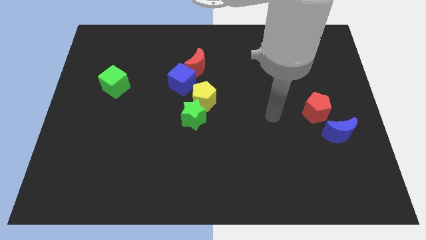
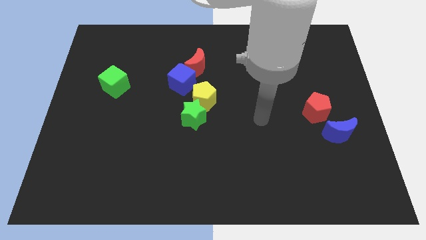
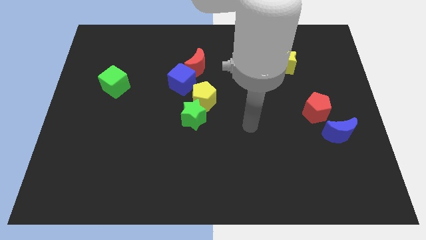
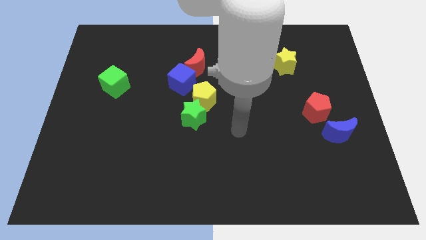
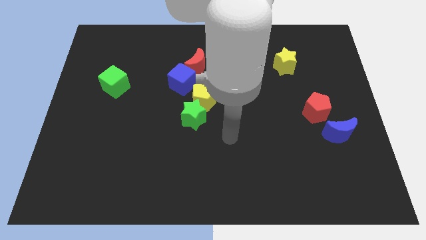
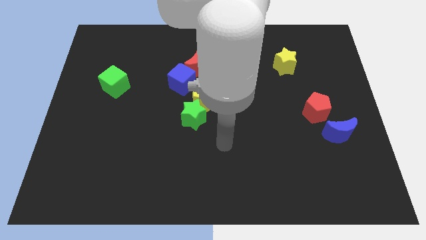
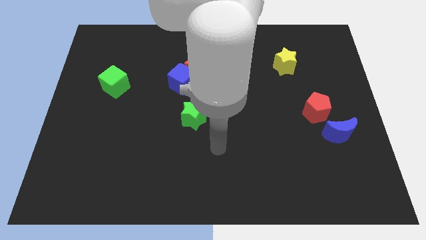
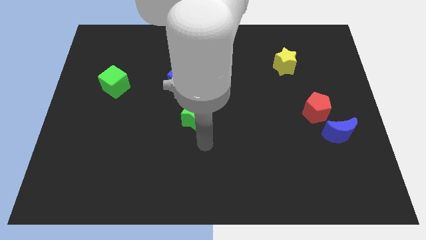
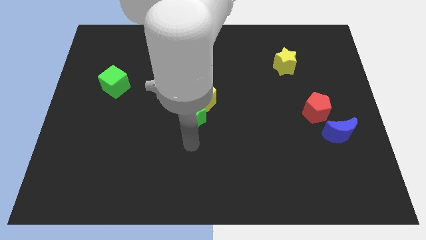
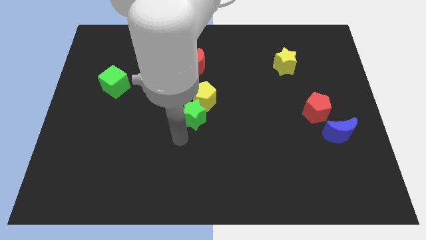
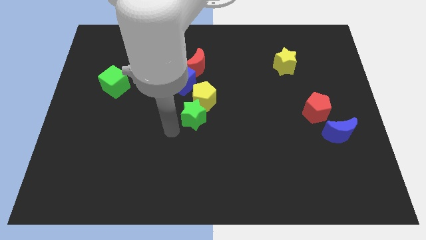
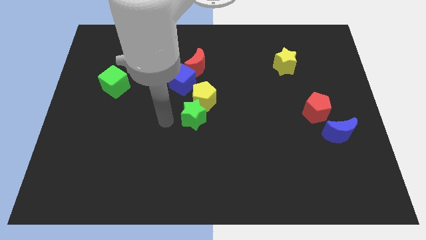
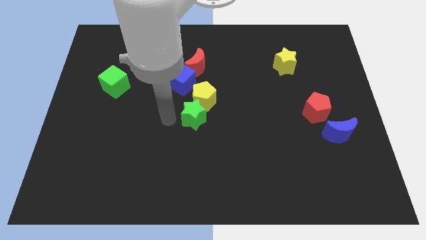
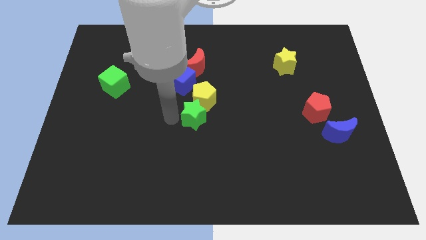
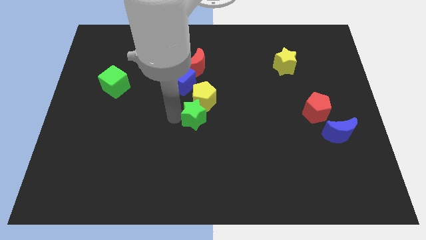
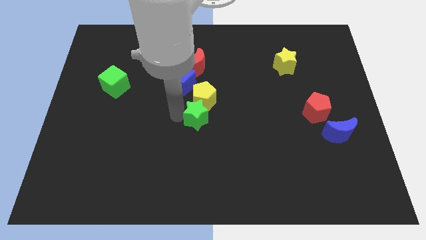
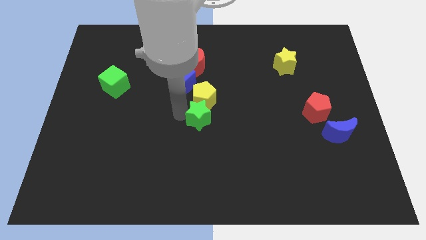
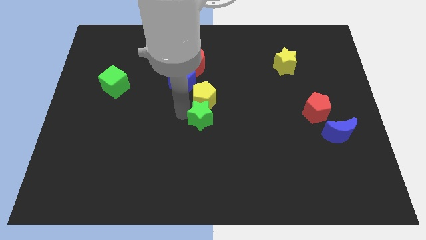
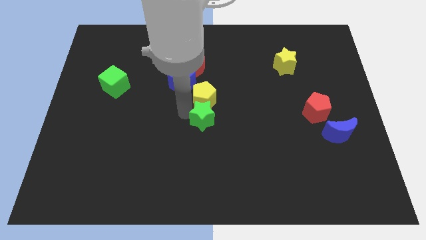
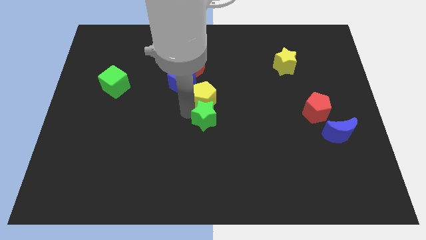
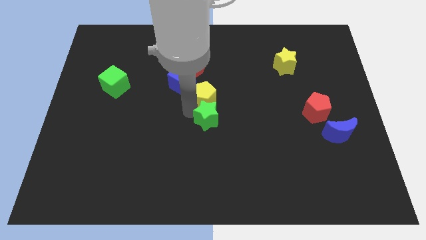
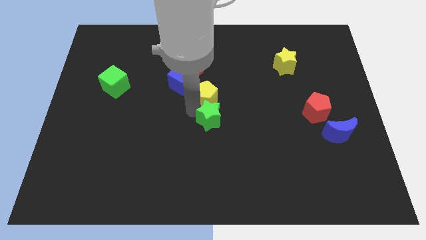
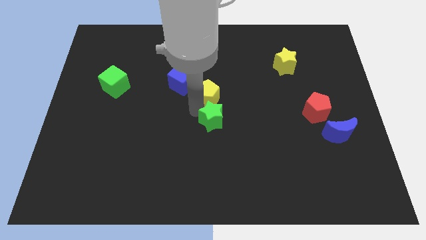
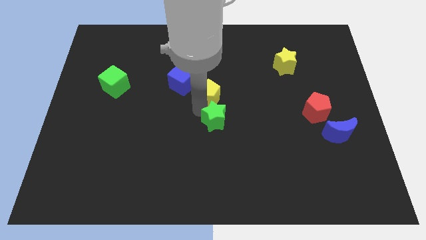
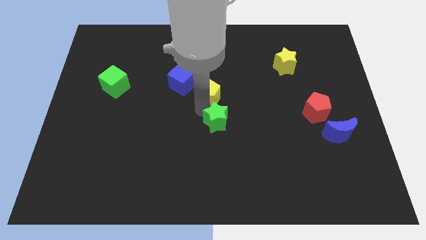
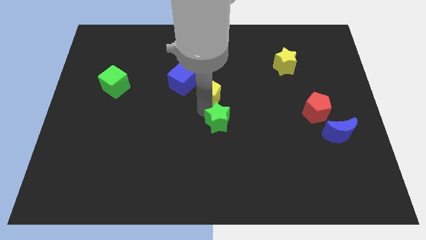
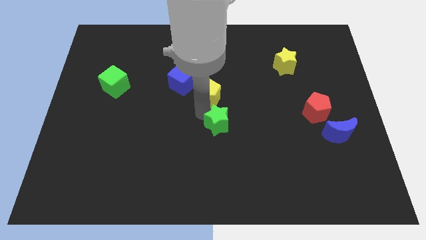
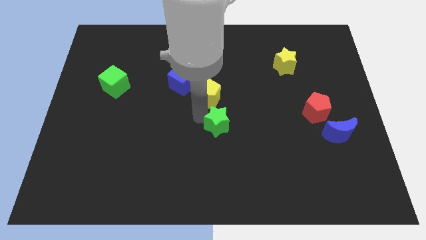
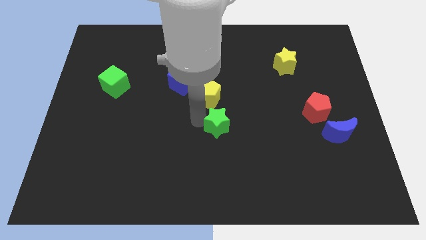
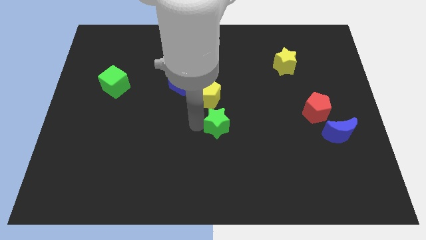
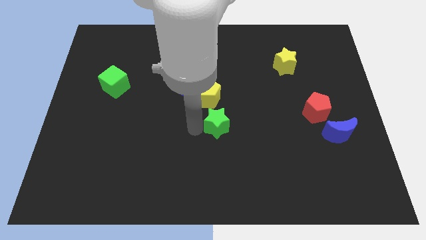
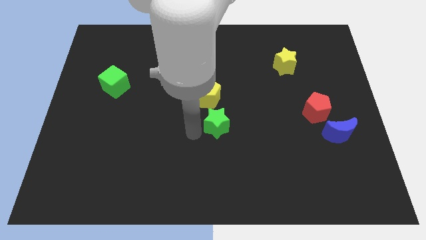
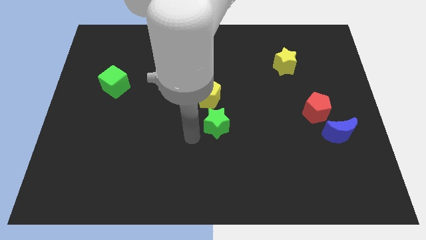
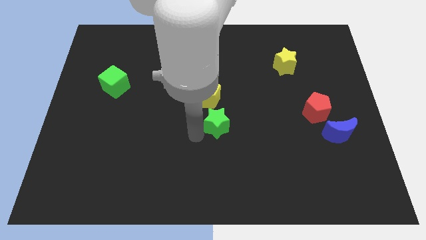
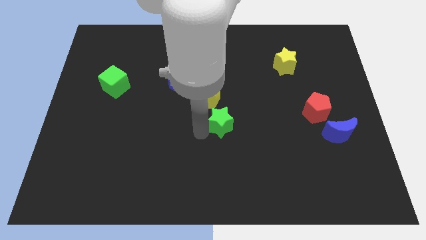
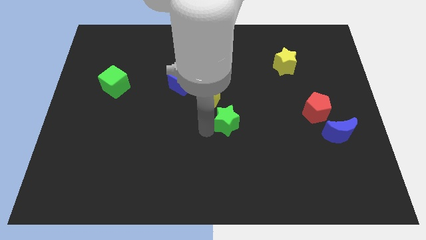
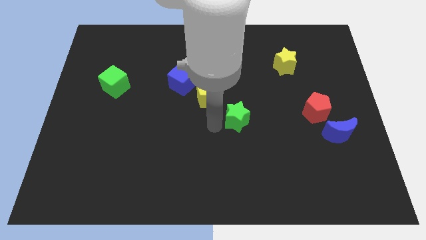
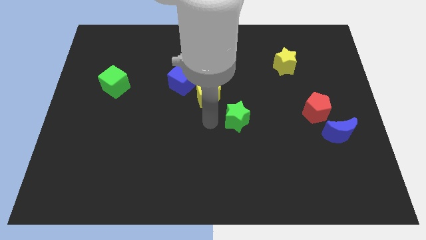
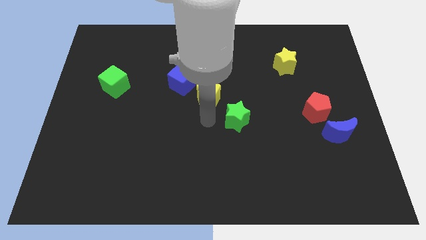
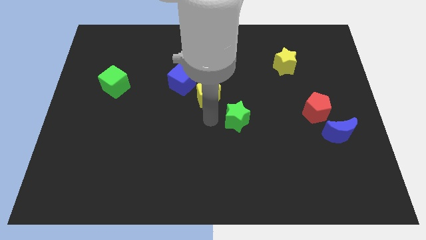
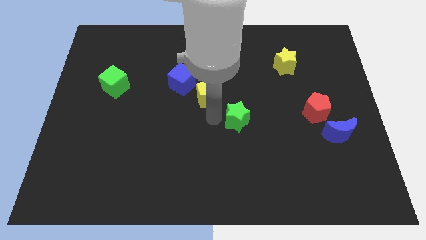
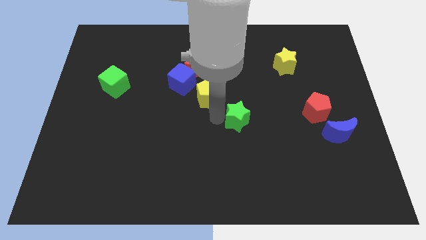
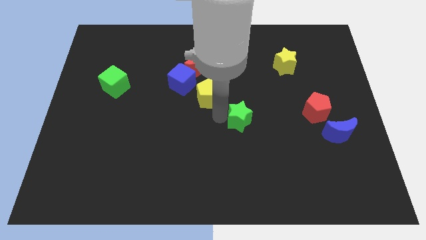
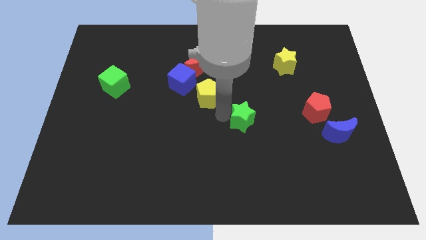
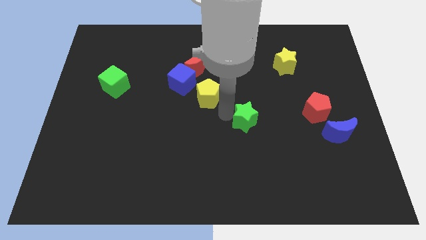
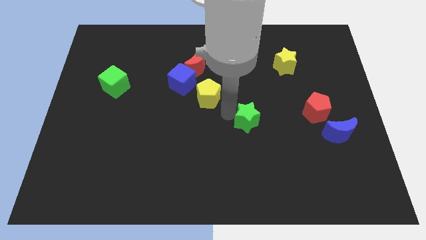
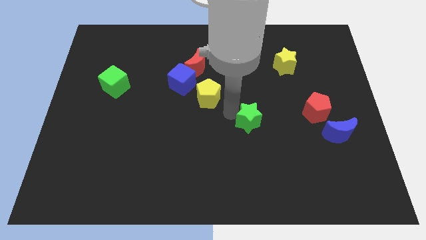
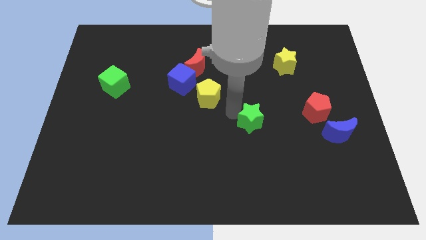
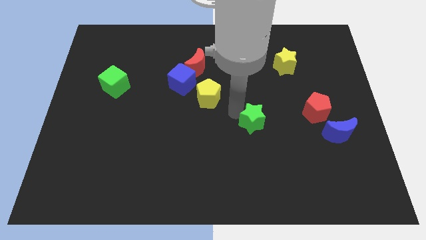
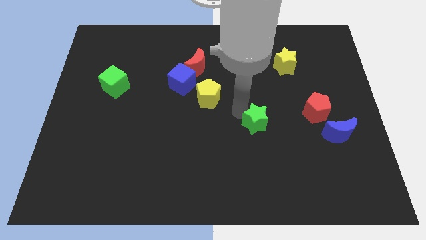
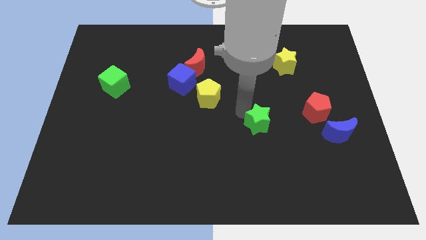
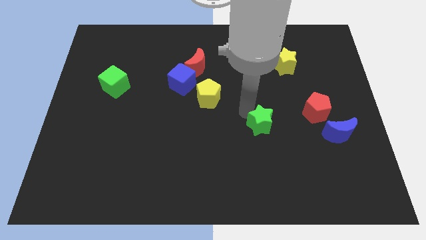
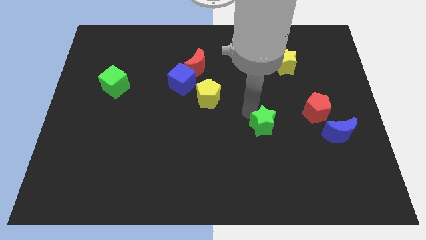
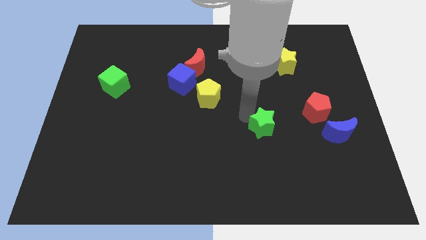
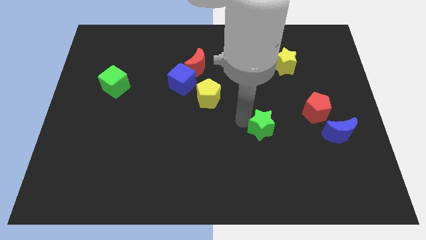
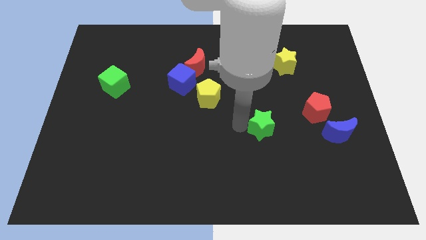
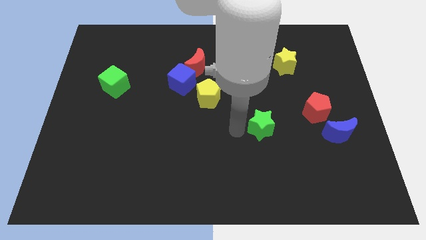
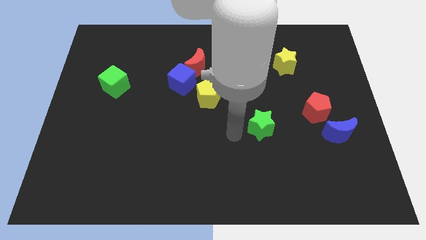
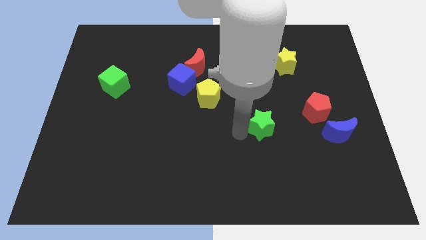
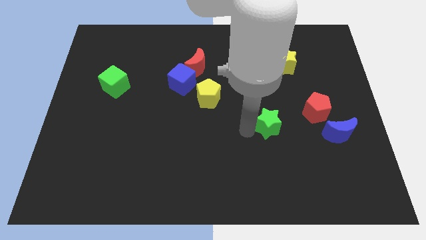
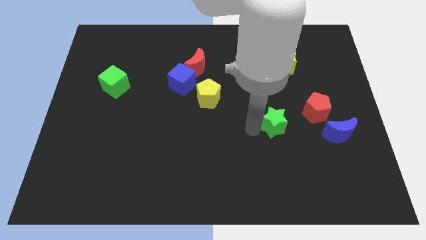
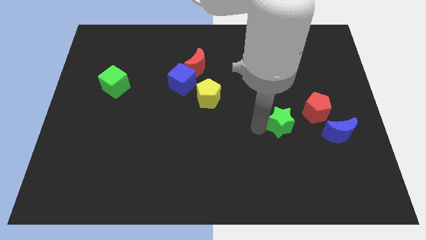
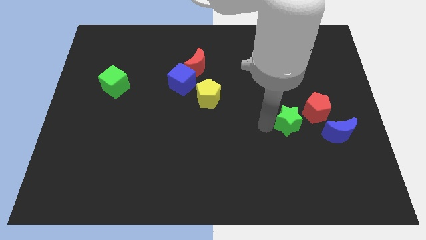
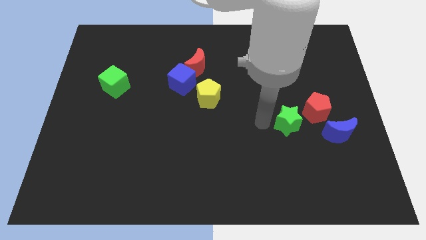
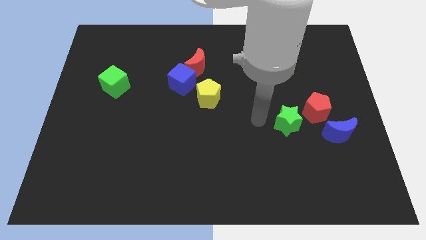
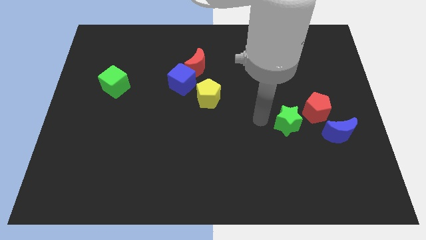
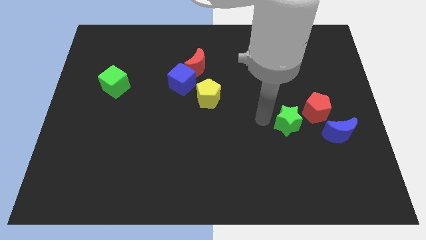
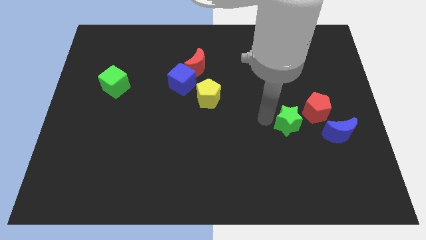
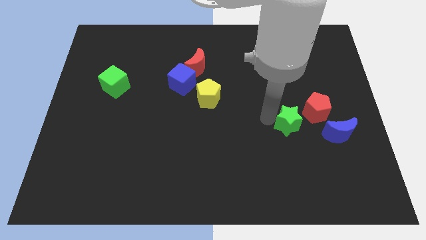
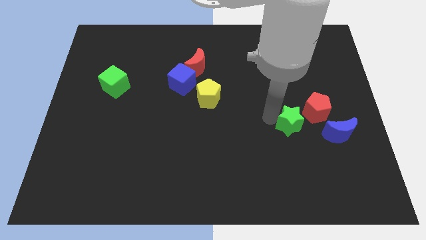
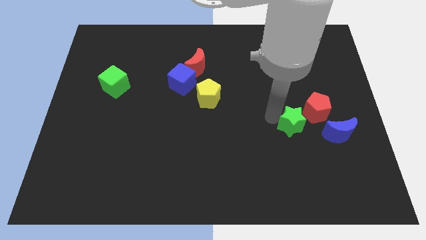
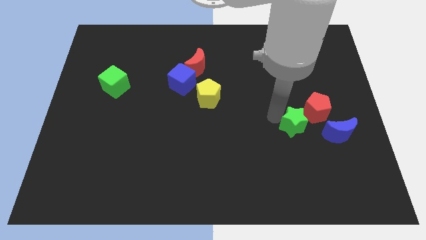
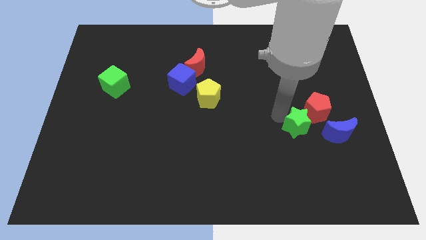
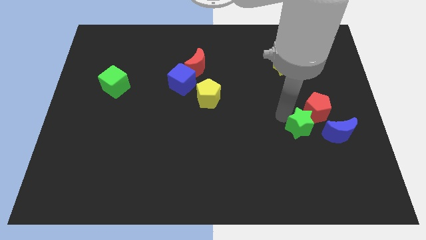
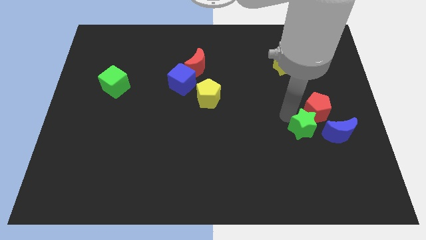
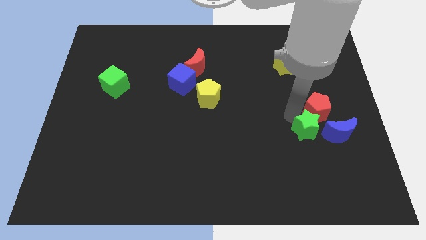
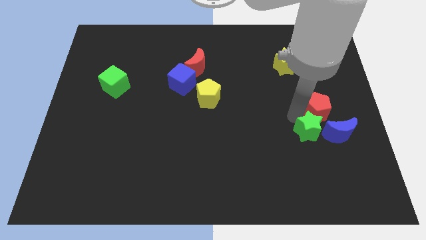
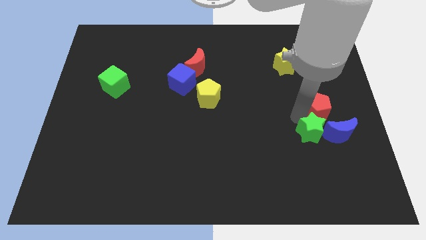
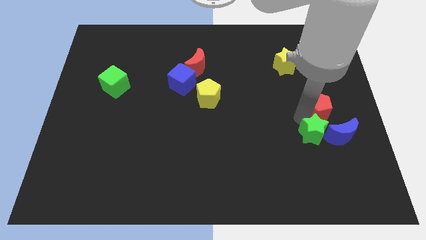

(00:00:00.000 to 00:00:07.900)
push the green star next to the blue moon

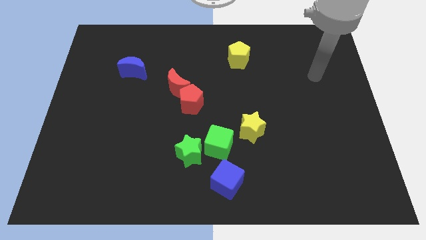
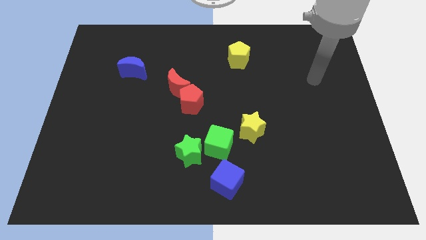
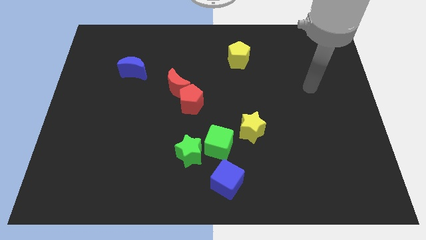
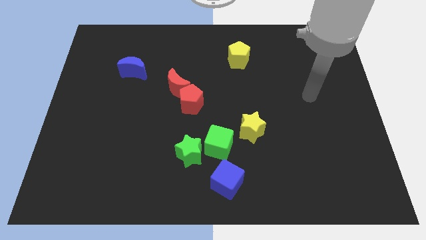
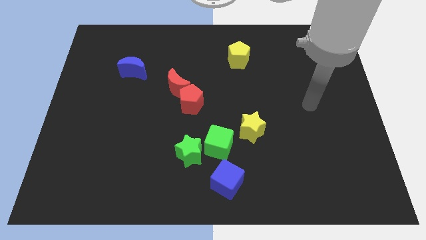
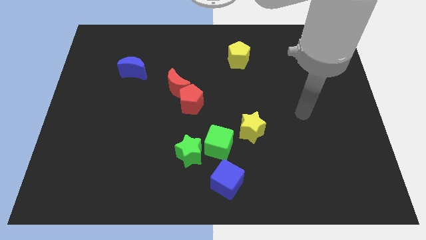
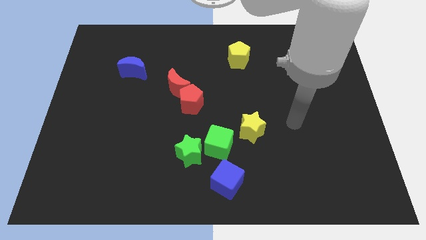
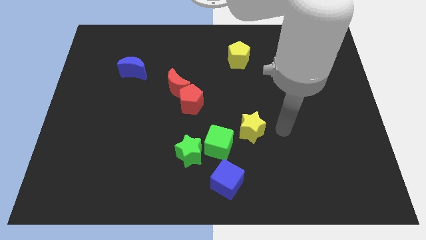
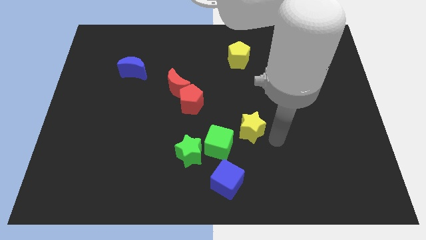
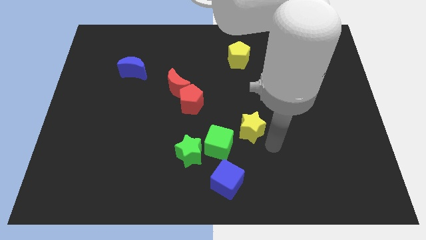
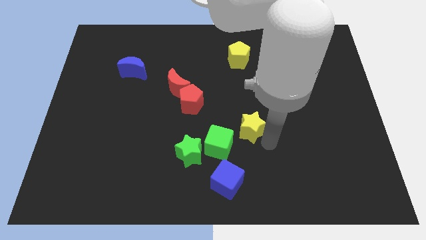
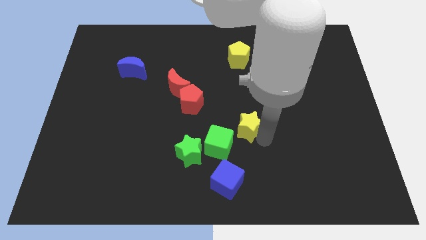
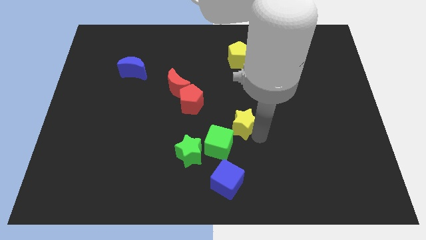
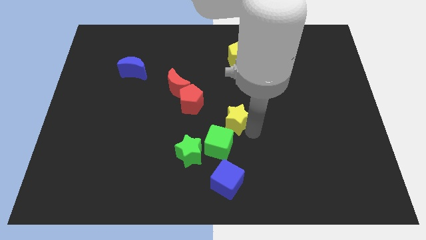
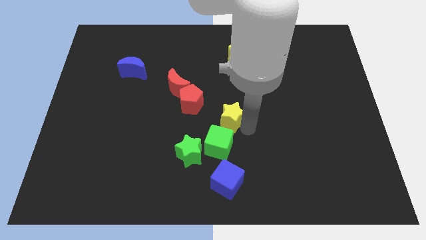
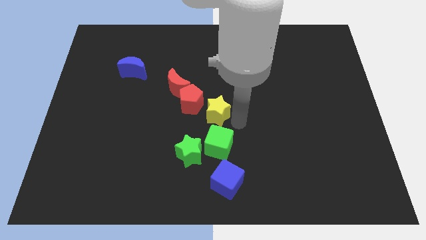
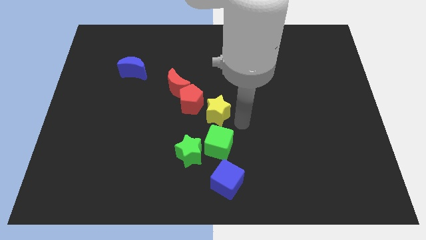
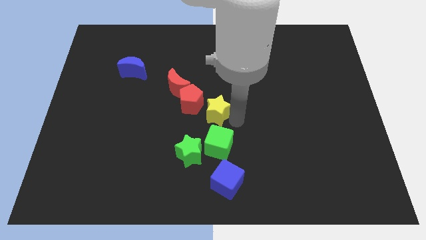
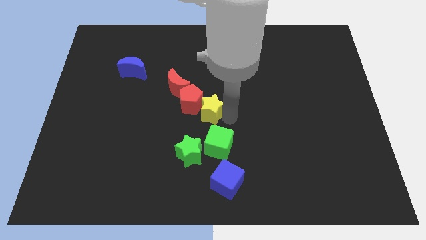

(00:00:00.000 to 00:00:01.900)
move the yellow star towards the red pentagon
